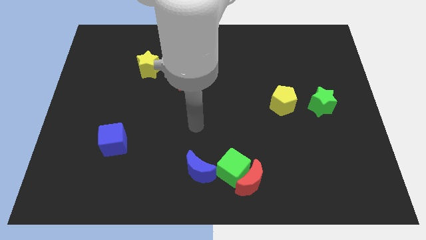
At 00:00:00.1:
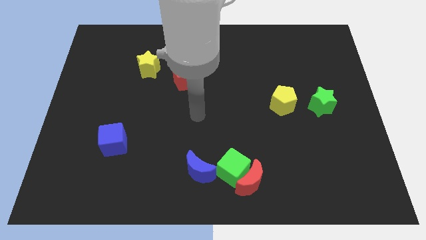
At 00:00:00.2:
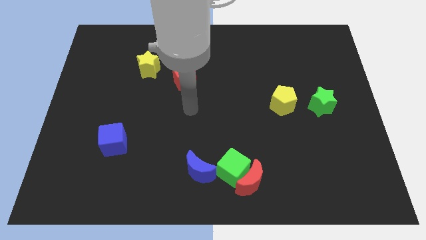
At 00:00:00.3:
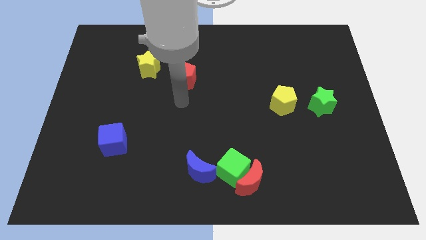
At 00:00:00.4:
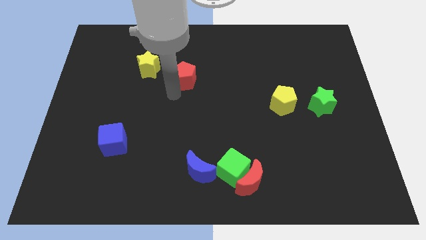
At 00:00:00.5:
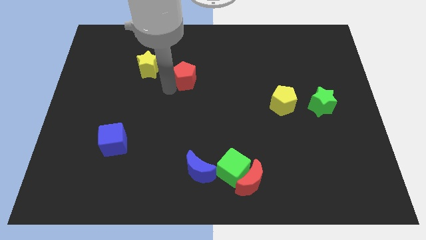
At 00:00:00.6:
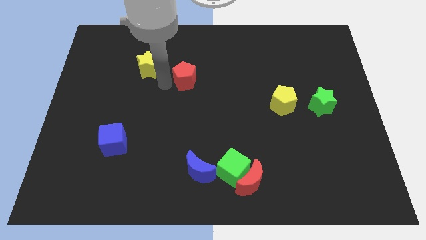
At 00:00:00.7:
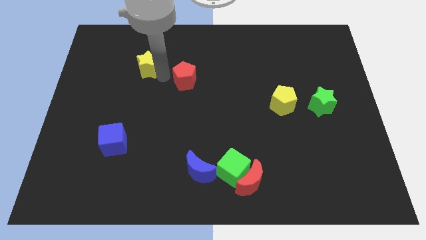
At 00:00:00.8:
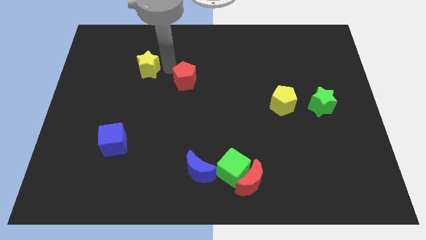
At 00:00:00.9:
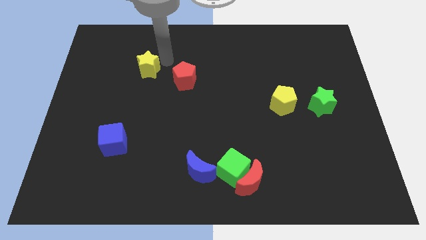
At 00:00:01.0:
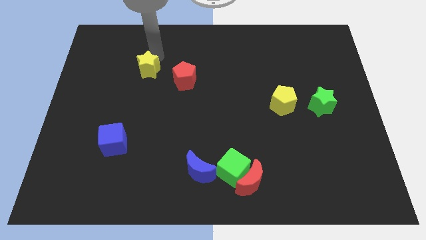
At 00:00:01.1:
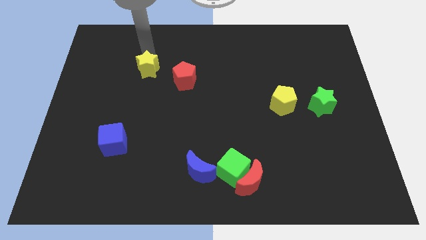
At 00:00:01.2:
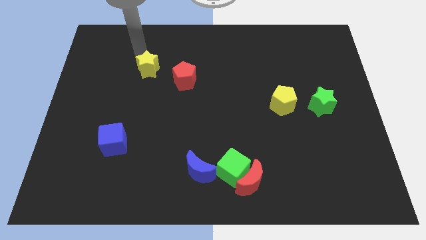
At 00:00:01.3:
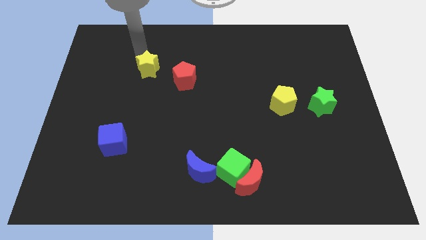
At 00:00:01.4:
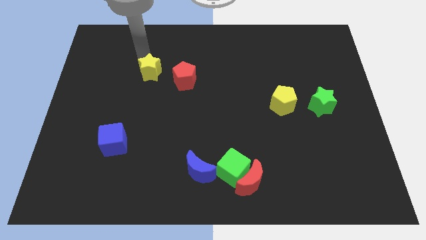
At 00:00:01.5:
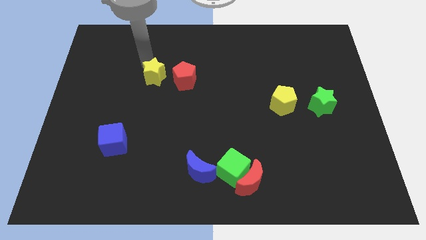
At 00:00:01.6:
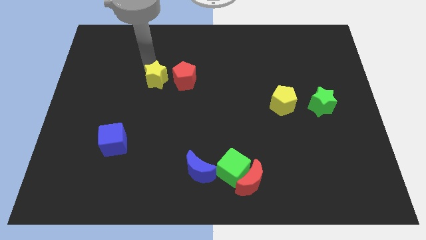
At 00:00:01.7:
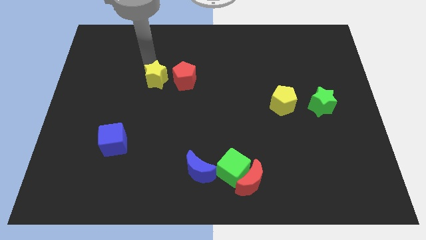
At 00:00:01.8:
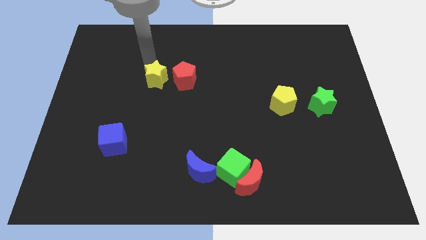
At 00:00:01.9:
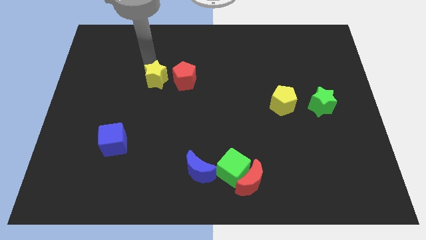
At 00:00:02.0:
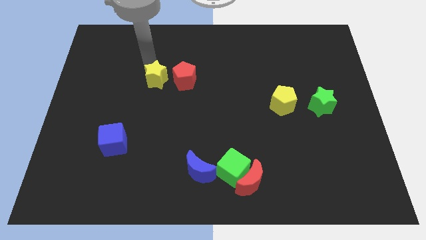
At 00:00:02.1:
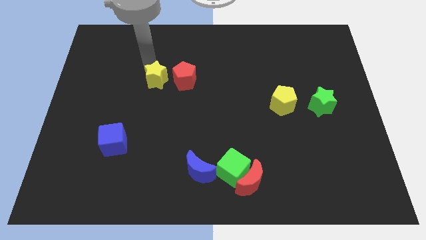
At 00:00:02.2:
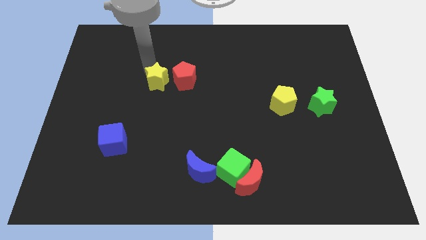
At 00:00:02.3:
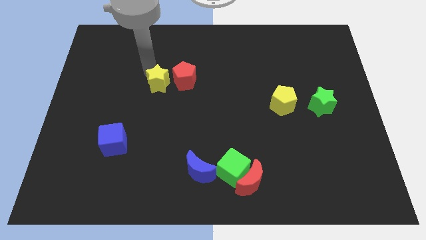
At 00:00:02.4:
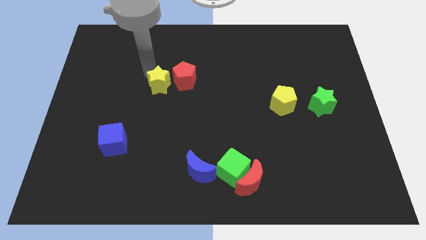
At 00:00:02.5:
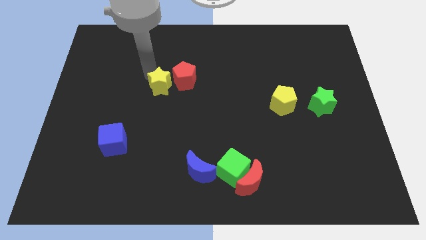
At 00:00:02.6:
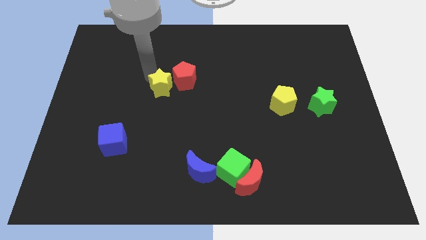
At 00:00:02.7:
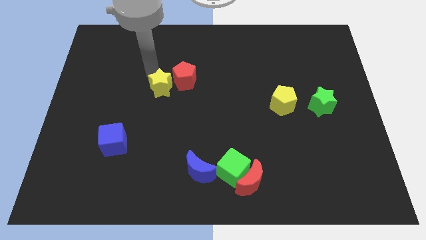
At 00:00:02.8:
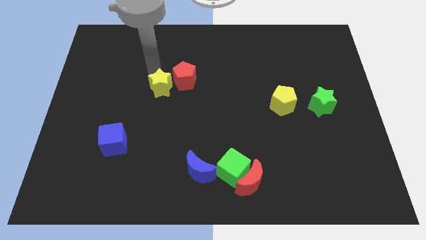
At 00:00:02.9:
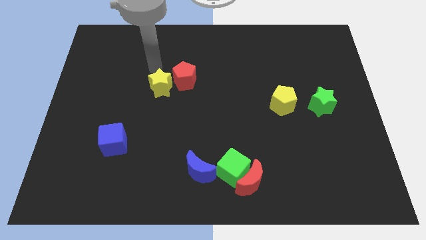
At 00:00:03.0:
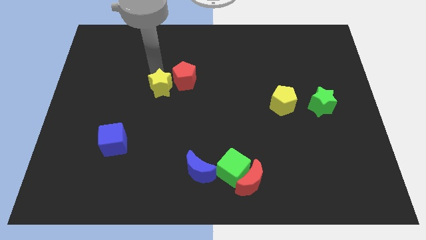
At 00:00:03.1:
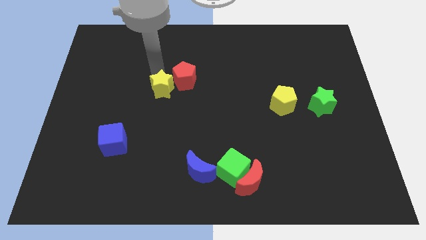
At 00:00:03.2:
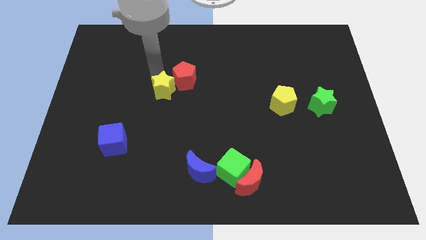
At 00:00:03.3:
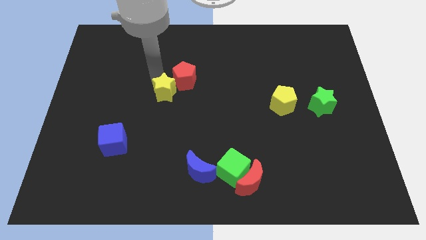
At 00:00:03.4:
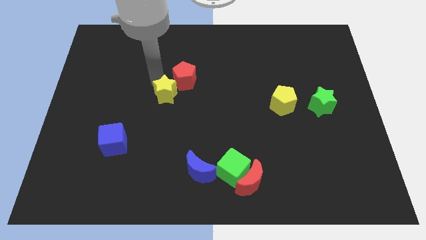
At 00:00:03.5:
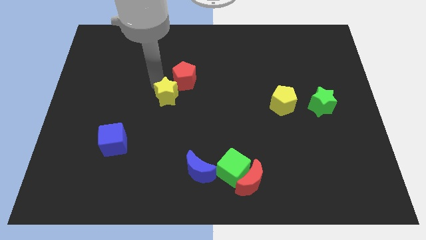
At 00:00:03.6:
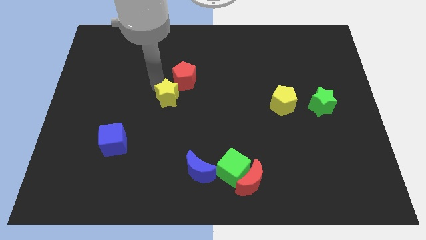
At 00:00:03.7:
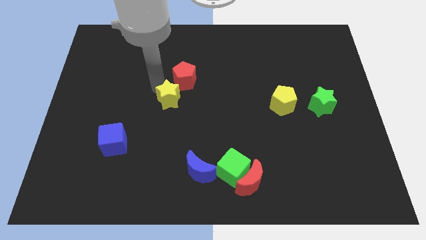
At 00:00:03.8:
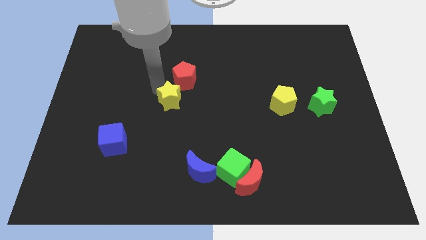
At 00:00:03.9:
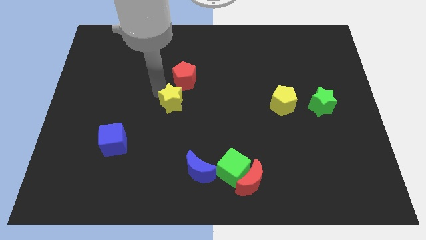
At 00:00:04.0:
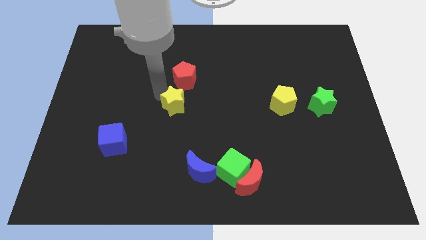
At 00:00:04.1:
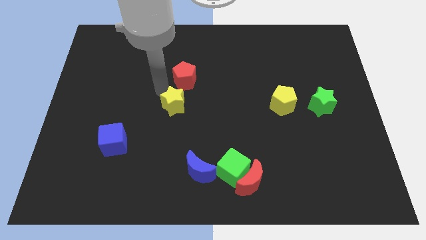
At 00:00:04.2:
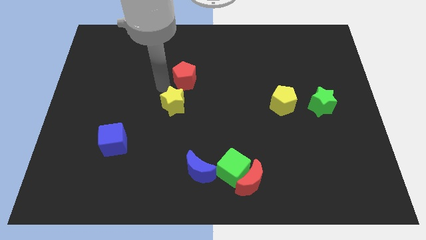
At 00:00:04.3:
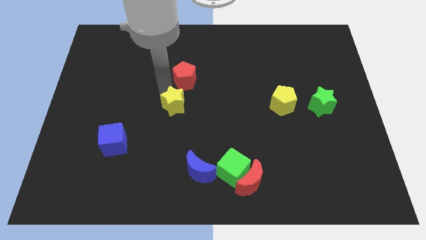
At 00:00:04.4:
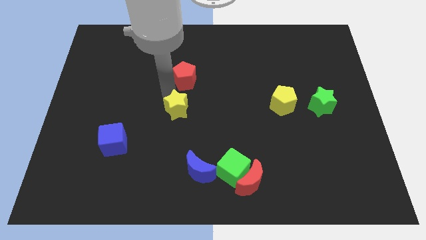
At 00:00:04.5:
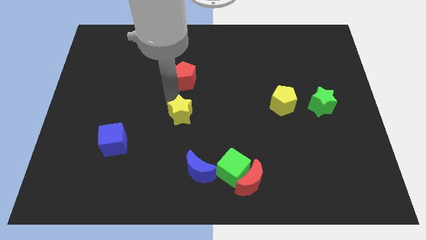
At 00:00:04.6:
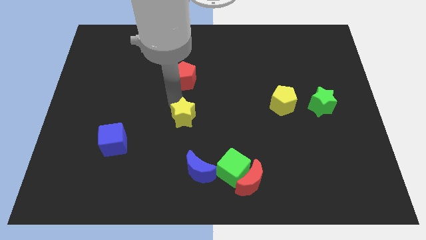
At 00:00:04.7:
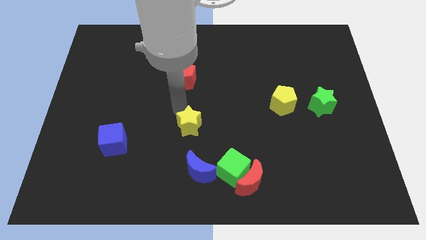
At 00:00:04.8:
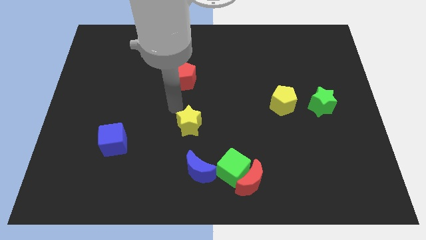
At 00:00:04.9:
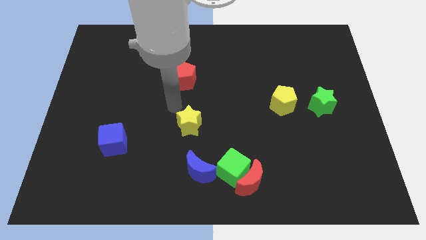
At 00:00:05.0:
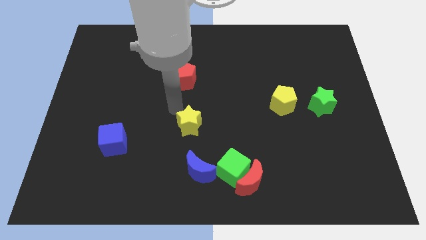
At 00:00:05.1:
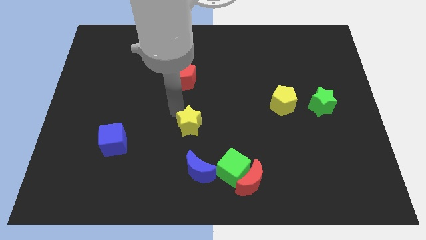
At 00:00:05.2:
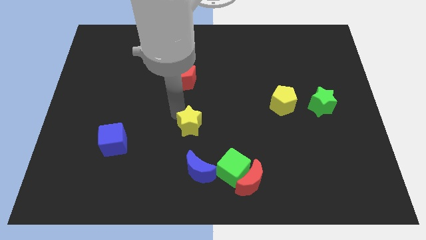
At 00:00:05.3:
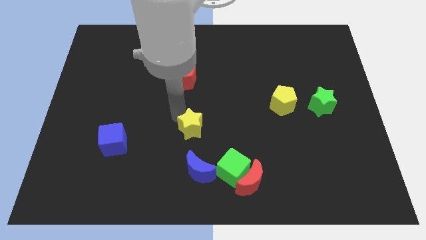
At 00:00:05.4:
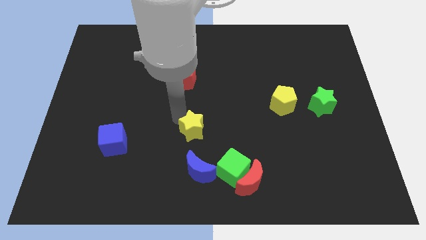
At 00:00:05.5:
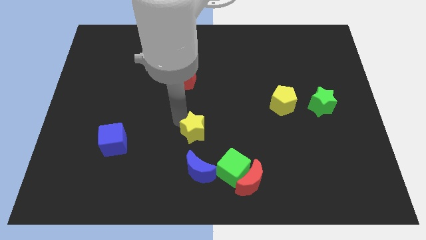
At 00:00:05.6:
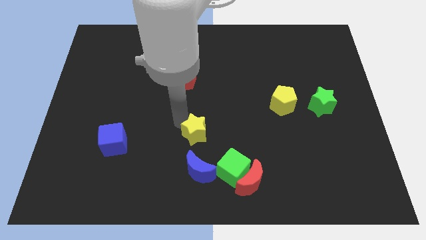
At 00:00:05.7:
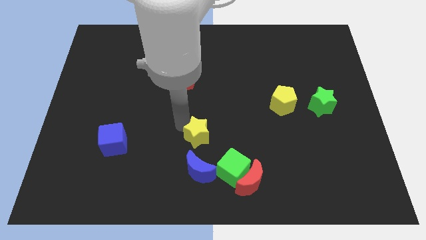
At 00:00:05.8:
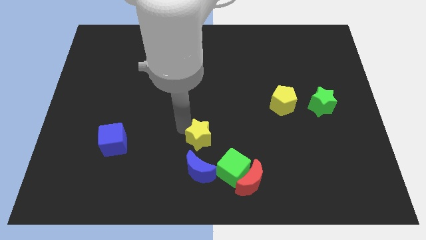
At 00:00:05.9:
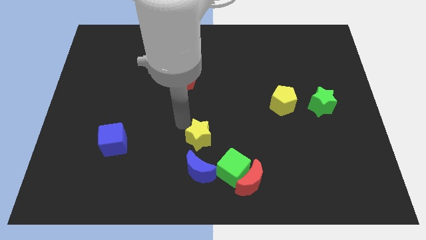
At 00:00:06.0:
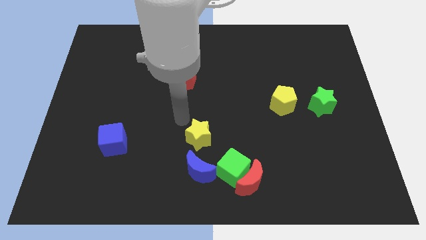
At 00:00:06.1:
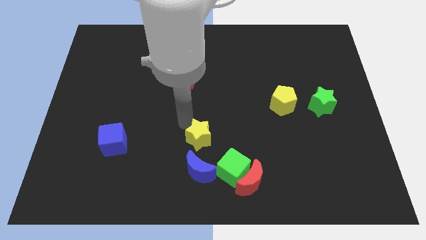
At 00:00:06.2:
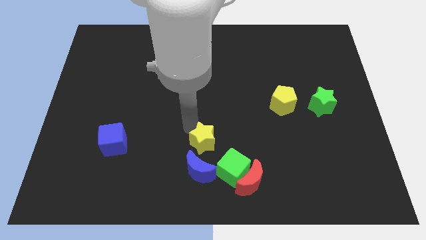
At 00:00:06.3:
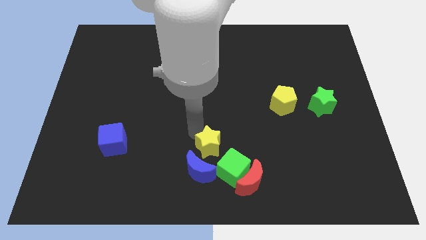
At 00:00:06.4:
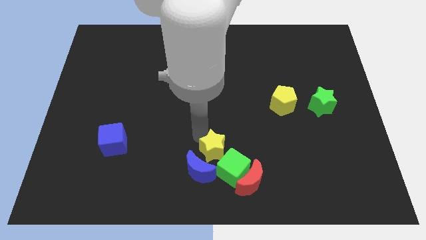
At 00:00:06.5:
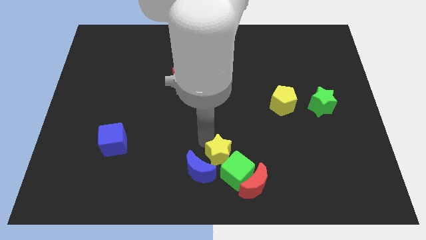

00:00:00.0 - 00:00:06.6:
slide the yellow star towards the green cube

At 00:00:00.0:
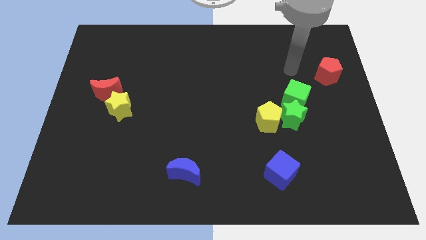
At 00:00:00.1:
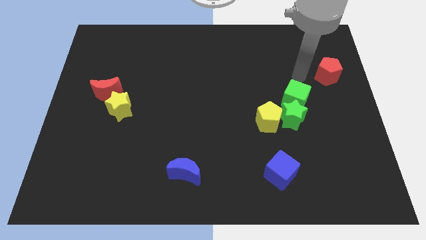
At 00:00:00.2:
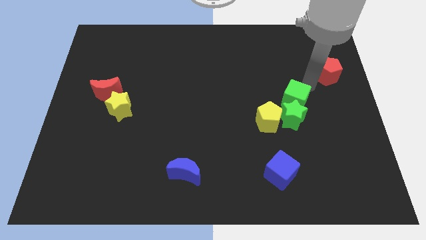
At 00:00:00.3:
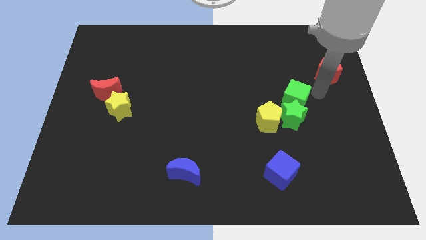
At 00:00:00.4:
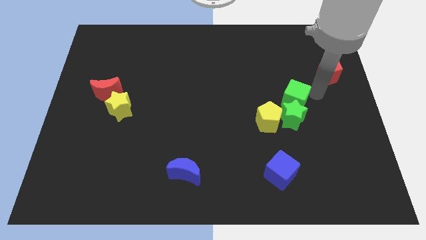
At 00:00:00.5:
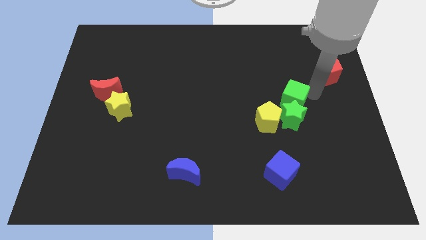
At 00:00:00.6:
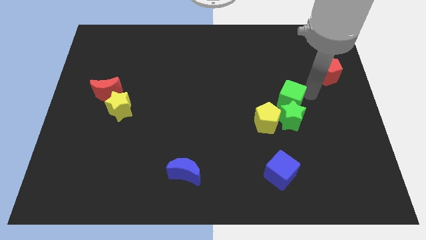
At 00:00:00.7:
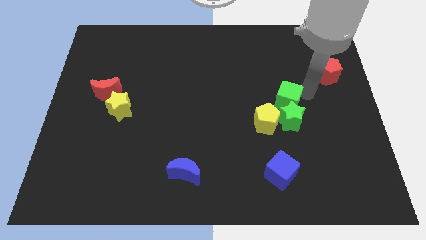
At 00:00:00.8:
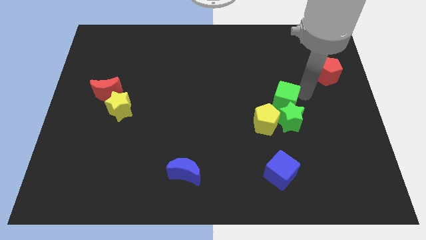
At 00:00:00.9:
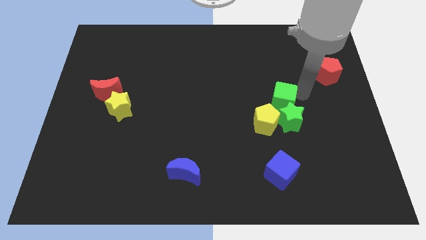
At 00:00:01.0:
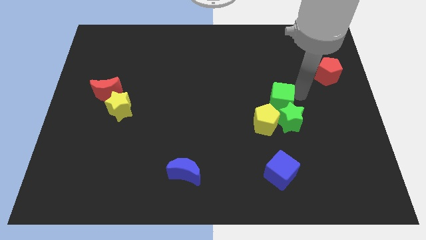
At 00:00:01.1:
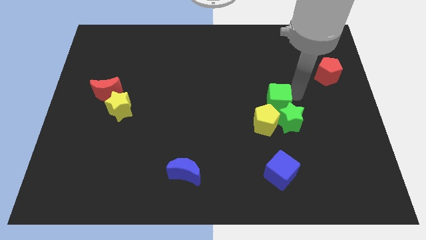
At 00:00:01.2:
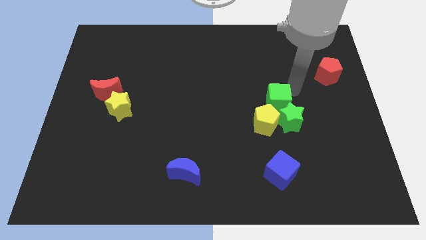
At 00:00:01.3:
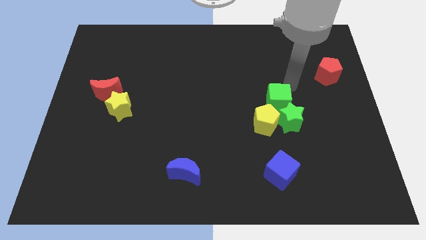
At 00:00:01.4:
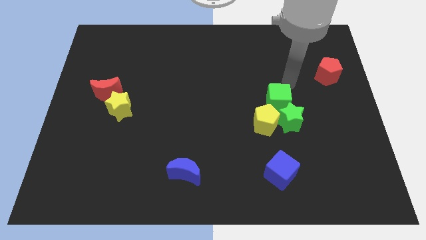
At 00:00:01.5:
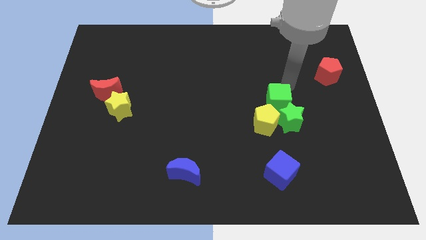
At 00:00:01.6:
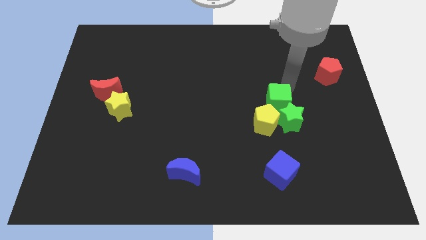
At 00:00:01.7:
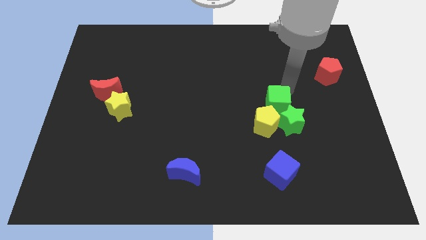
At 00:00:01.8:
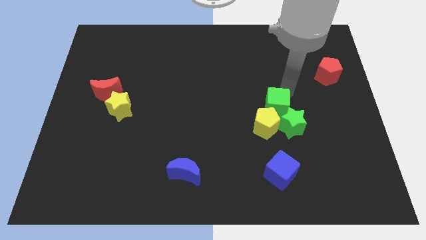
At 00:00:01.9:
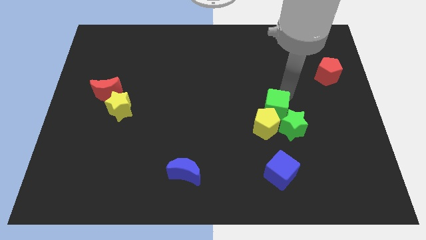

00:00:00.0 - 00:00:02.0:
put the green cube close to the yellow pentagon
